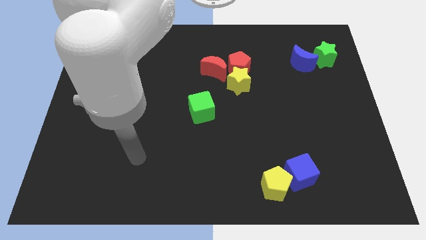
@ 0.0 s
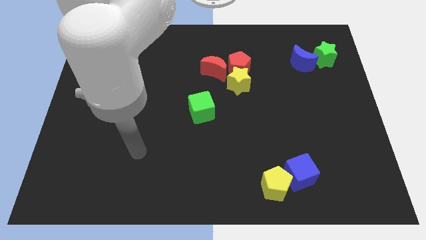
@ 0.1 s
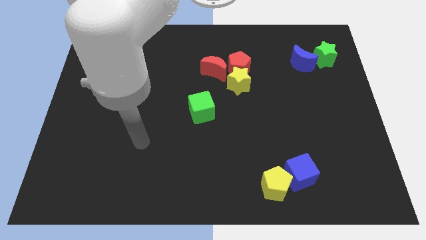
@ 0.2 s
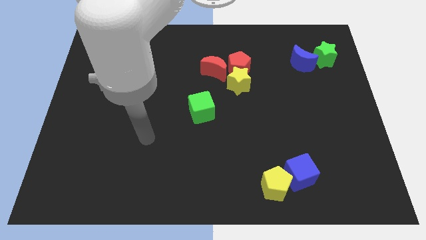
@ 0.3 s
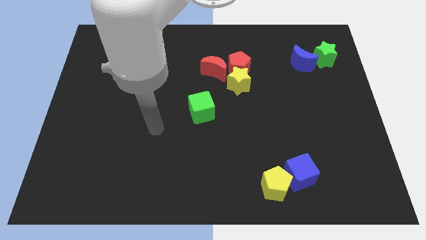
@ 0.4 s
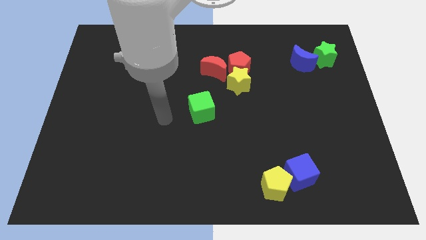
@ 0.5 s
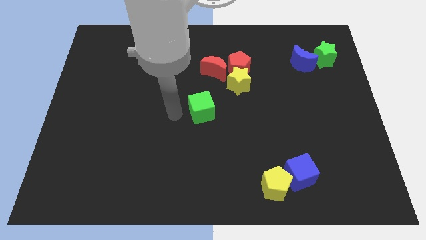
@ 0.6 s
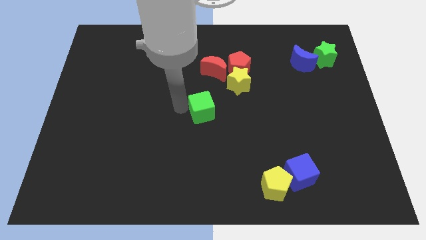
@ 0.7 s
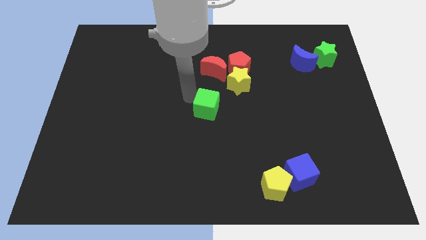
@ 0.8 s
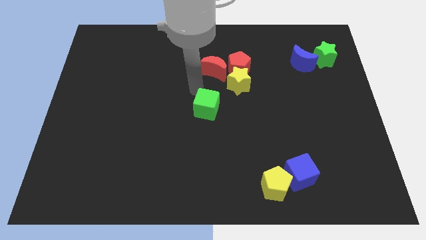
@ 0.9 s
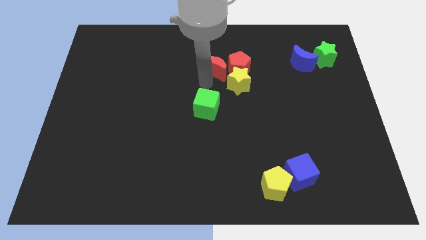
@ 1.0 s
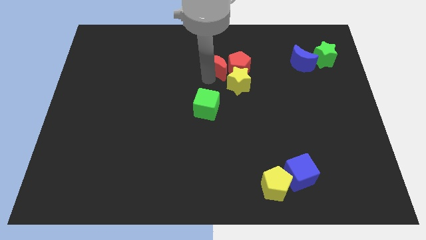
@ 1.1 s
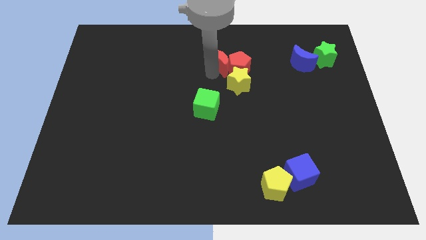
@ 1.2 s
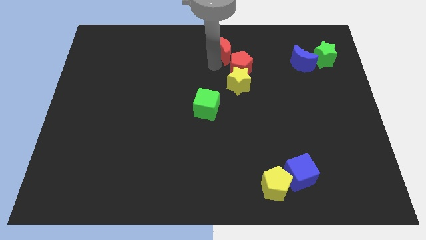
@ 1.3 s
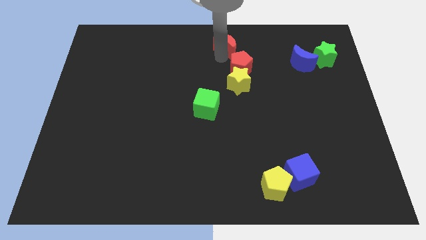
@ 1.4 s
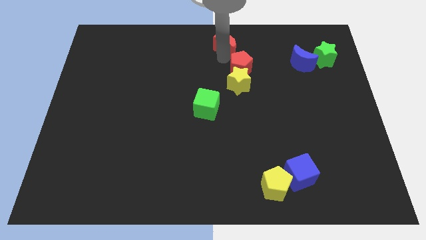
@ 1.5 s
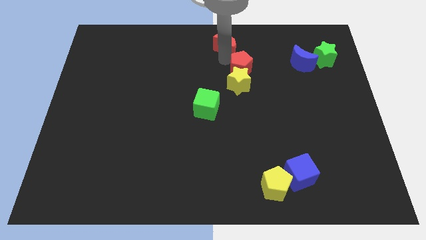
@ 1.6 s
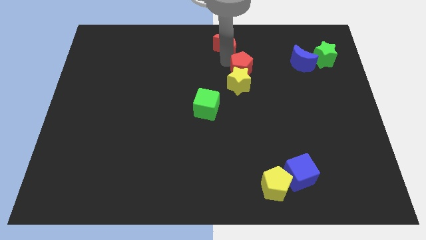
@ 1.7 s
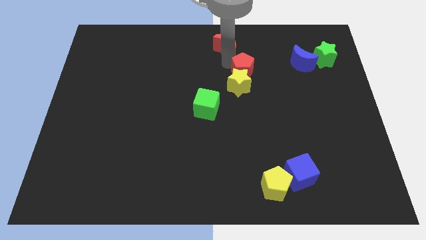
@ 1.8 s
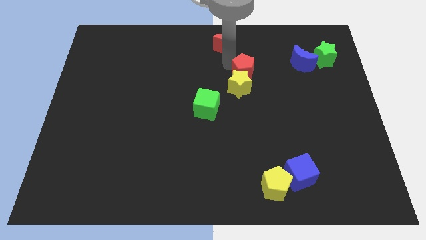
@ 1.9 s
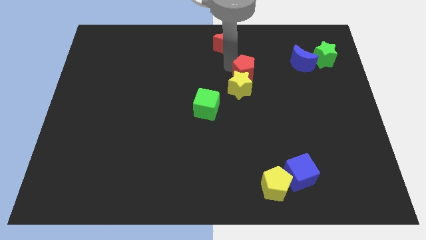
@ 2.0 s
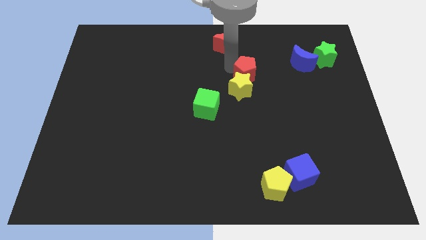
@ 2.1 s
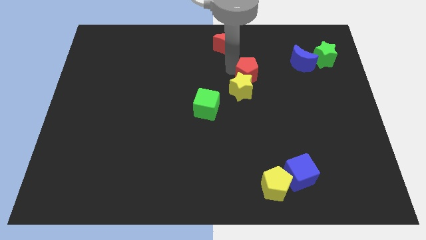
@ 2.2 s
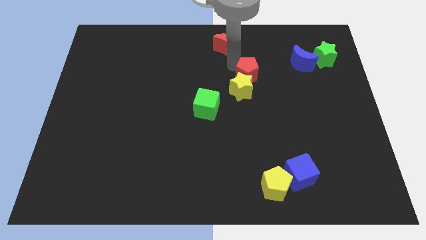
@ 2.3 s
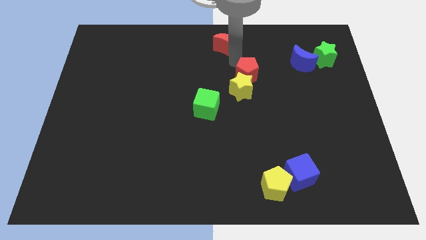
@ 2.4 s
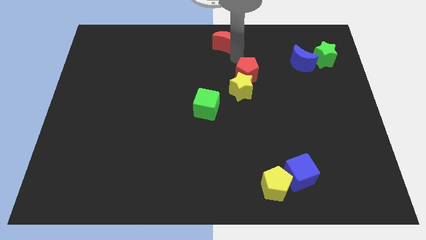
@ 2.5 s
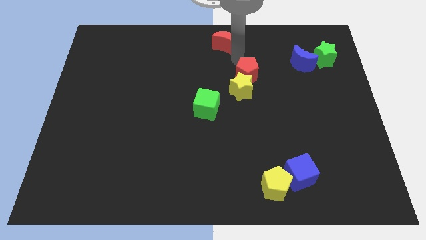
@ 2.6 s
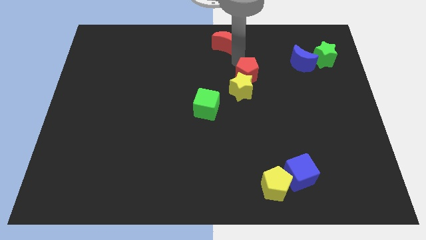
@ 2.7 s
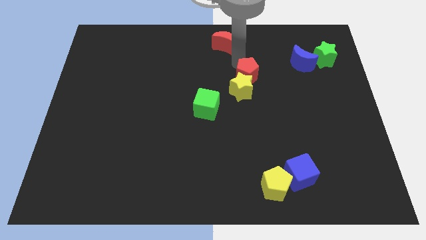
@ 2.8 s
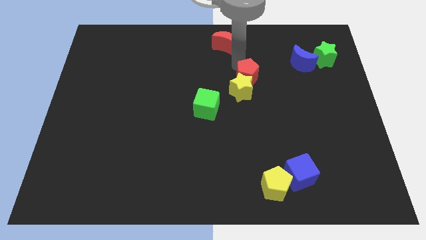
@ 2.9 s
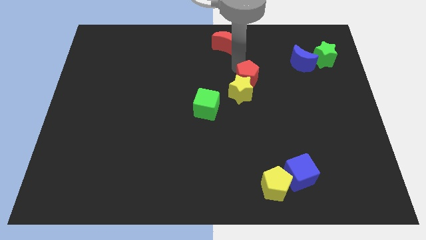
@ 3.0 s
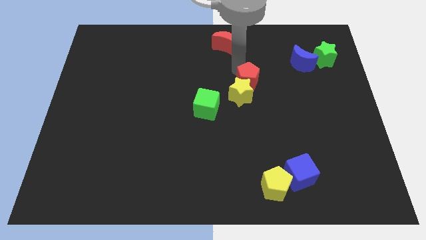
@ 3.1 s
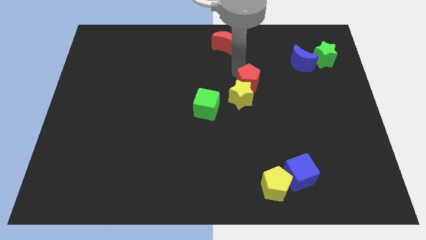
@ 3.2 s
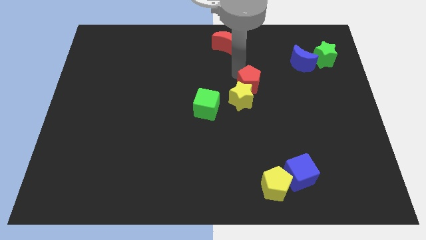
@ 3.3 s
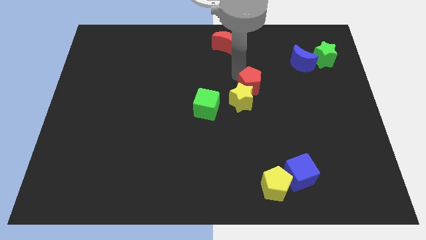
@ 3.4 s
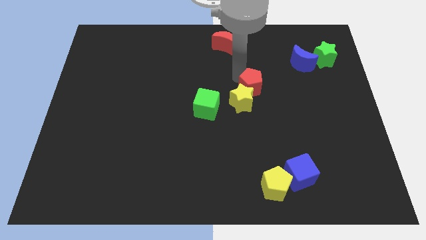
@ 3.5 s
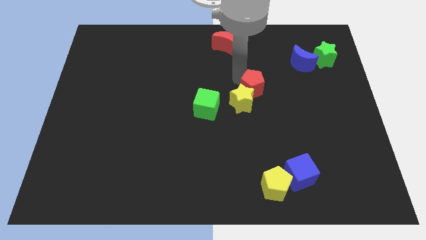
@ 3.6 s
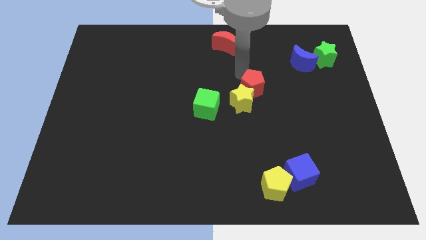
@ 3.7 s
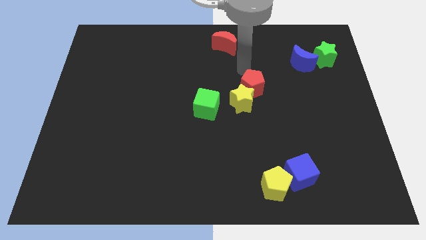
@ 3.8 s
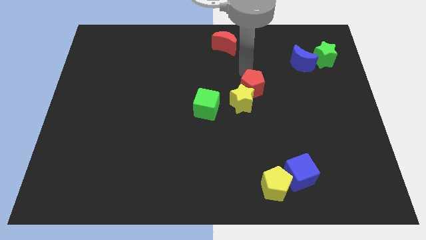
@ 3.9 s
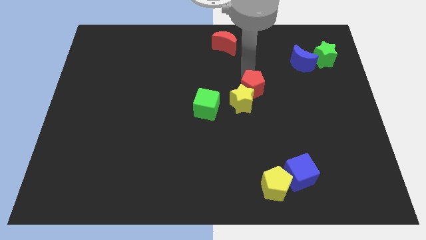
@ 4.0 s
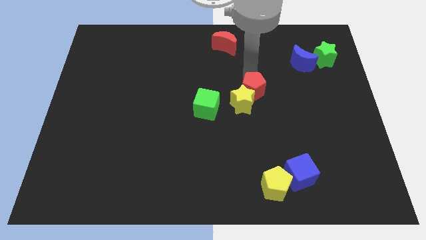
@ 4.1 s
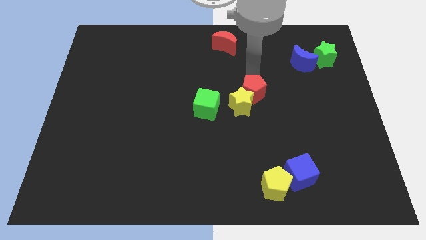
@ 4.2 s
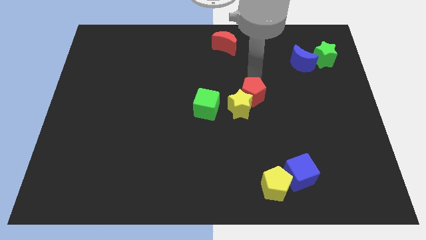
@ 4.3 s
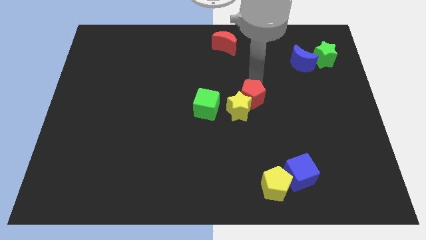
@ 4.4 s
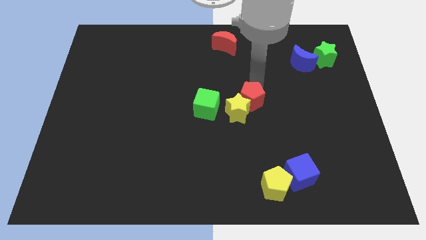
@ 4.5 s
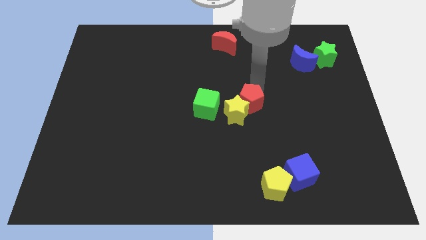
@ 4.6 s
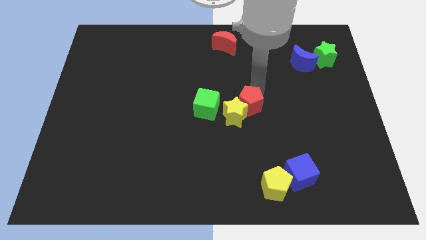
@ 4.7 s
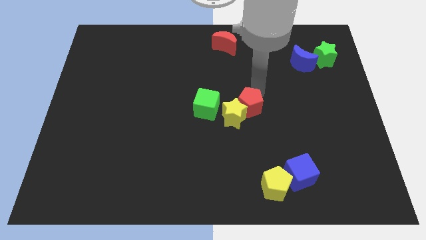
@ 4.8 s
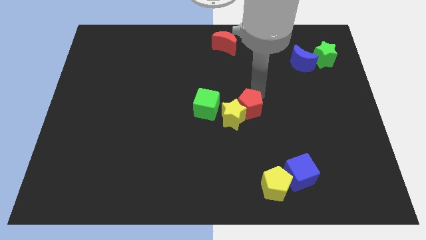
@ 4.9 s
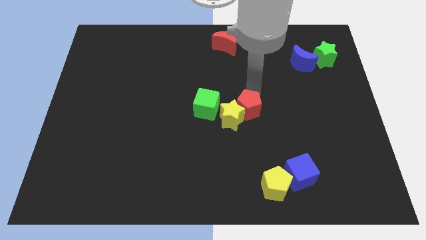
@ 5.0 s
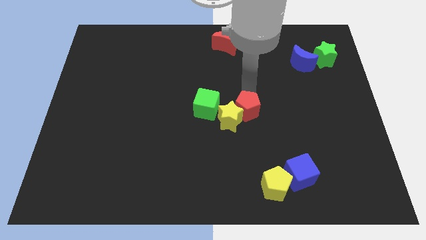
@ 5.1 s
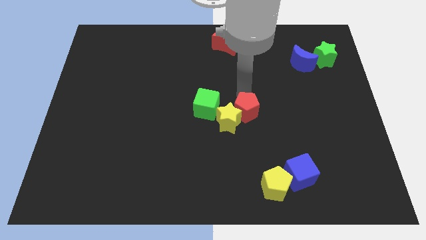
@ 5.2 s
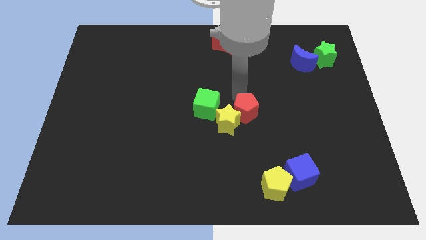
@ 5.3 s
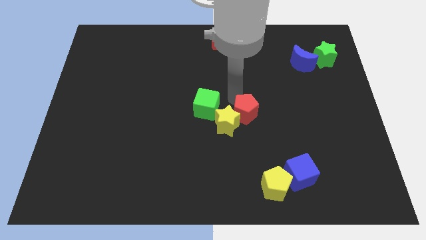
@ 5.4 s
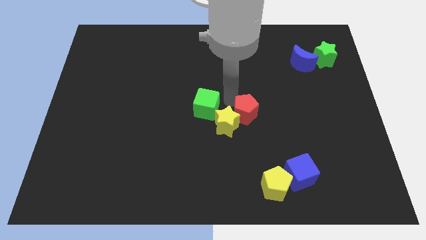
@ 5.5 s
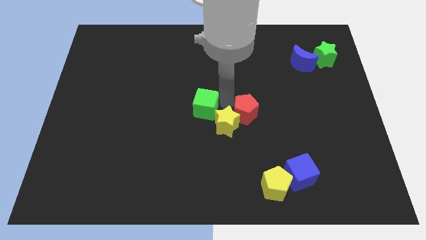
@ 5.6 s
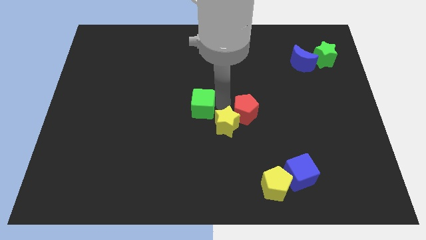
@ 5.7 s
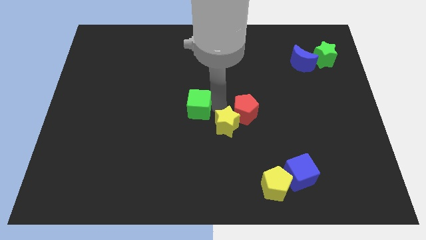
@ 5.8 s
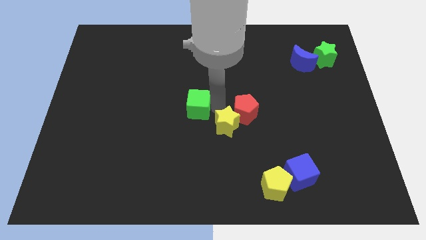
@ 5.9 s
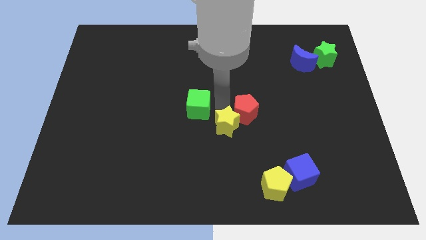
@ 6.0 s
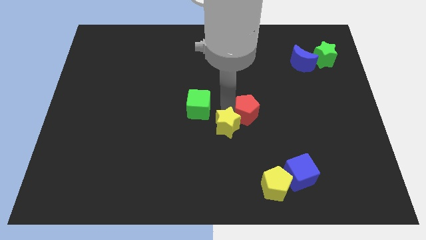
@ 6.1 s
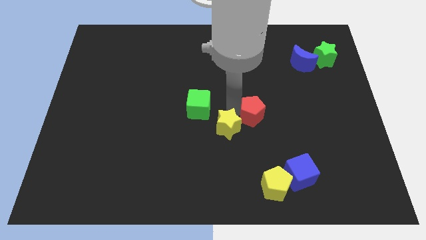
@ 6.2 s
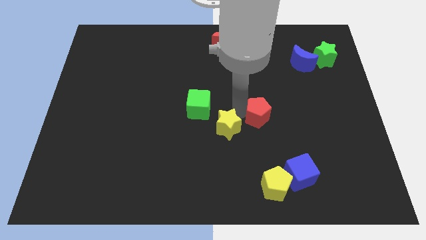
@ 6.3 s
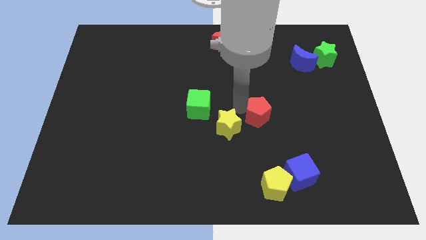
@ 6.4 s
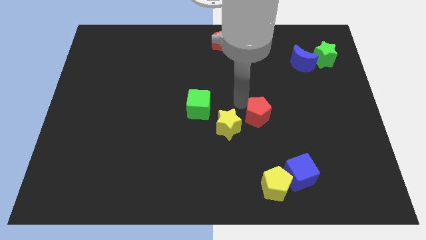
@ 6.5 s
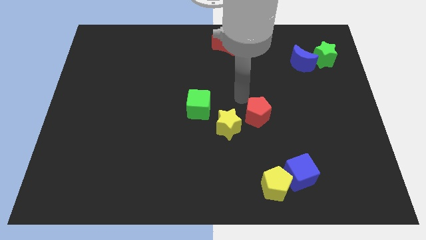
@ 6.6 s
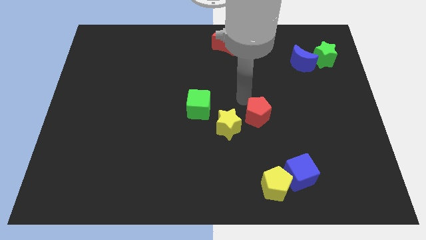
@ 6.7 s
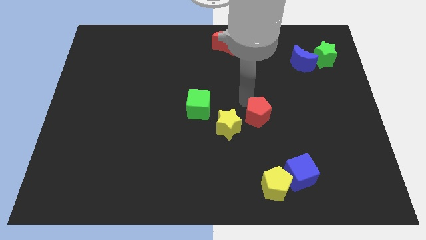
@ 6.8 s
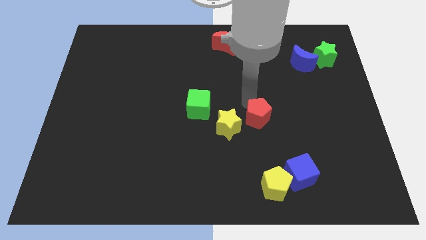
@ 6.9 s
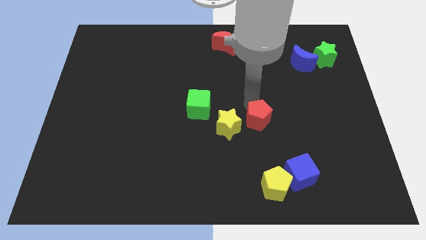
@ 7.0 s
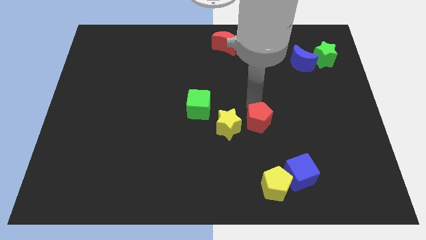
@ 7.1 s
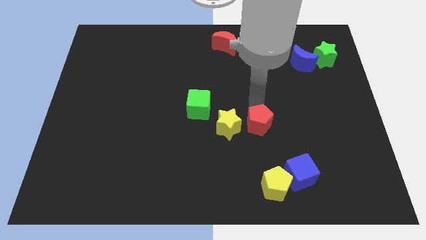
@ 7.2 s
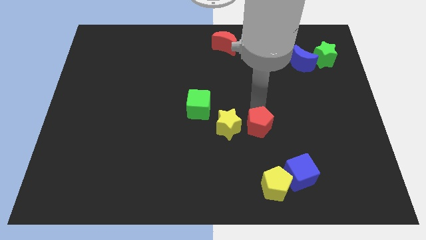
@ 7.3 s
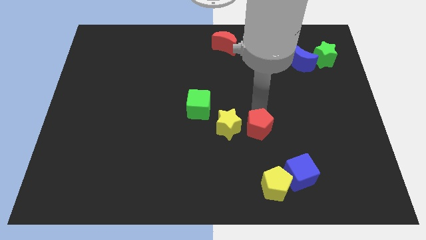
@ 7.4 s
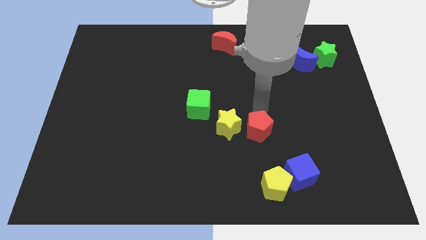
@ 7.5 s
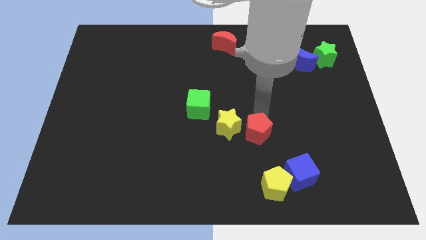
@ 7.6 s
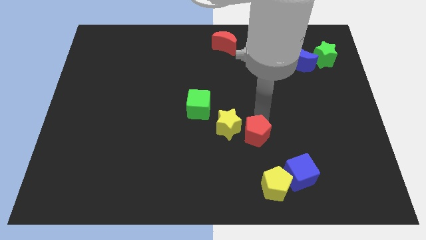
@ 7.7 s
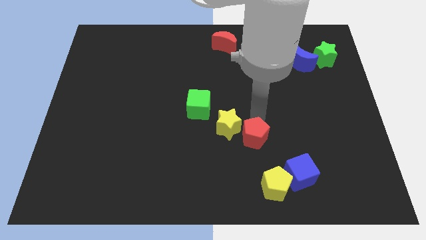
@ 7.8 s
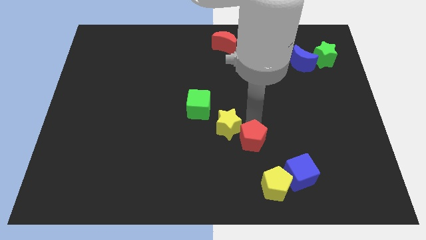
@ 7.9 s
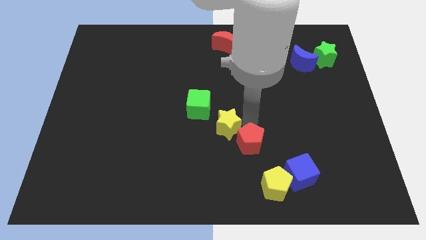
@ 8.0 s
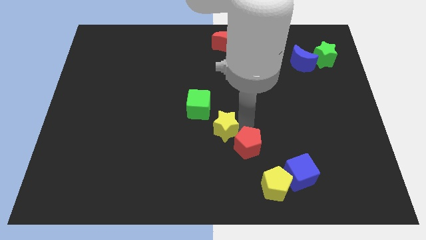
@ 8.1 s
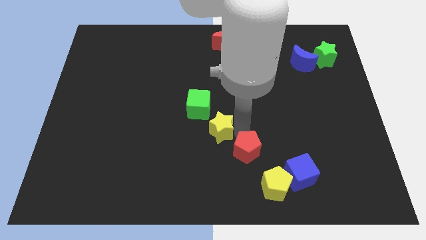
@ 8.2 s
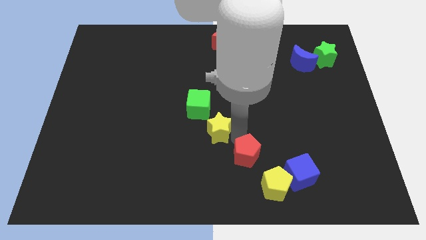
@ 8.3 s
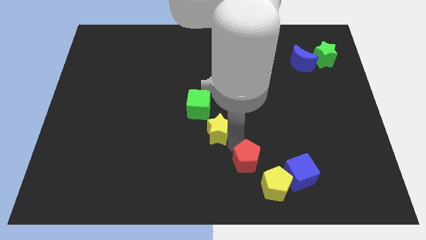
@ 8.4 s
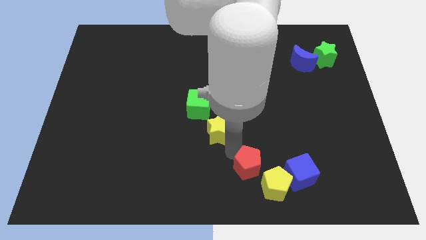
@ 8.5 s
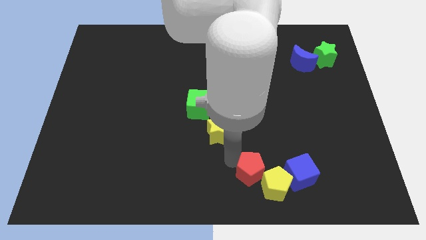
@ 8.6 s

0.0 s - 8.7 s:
push the red pentagon towards the yellow pentagon
